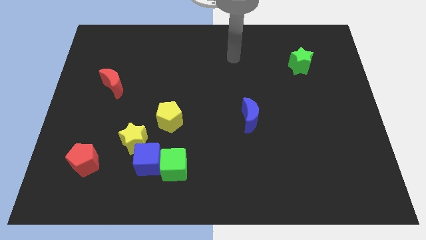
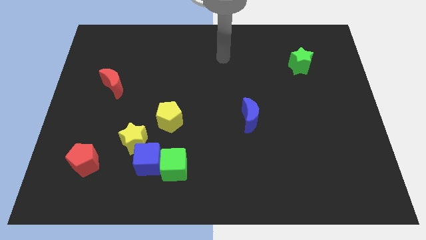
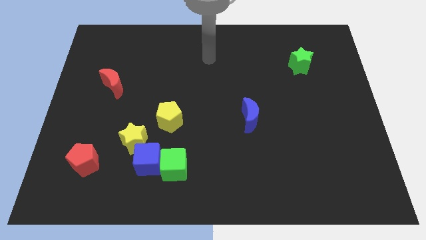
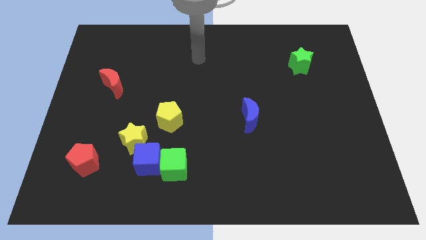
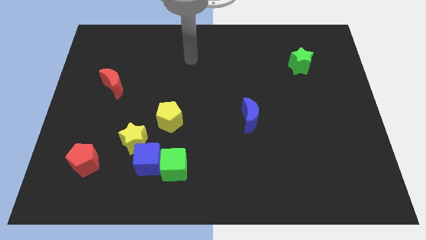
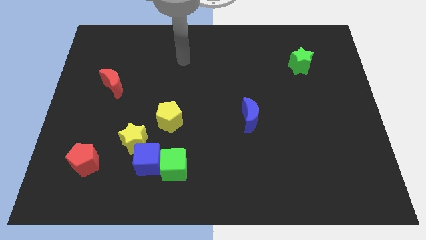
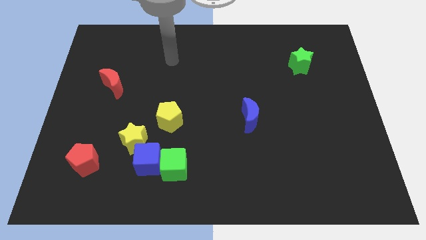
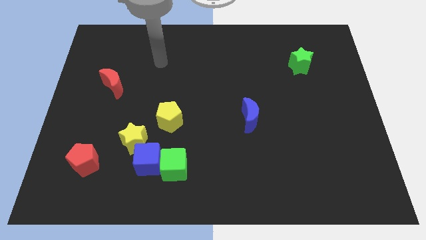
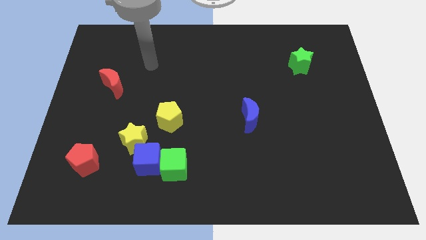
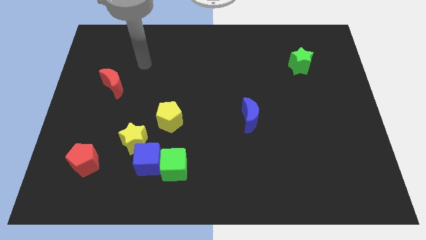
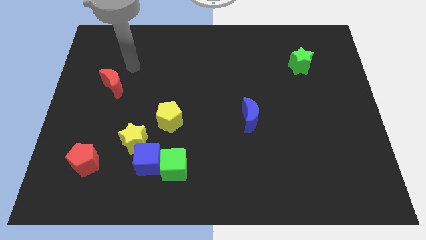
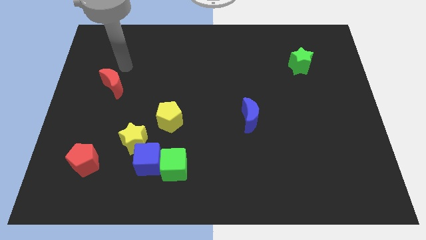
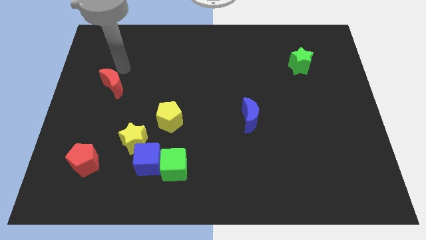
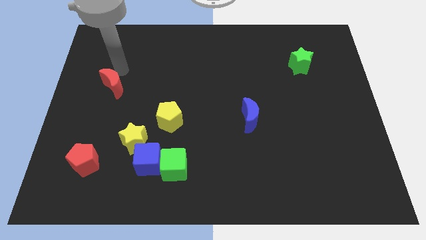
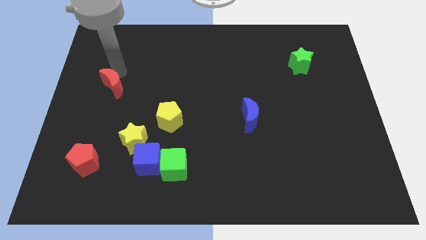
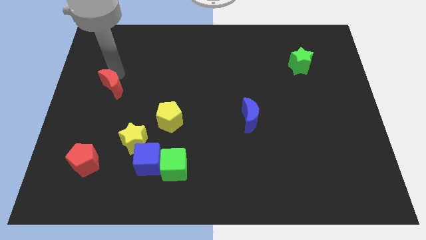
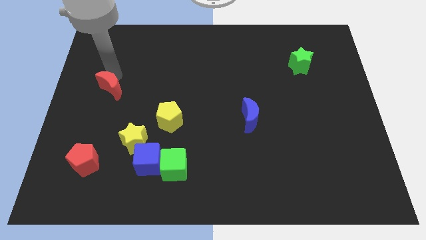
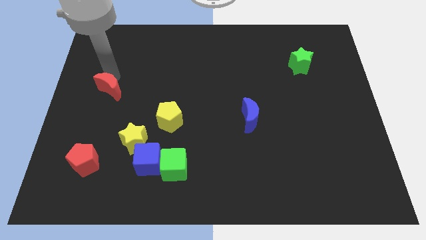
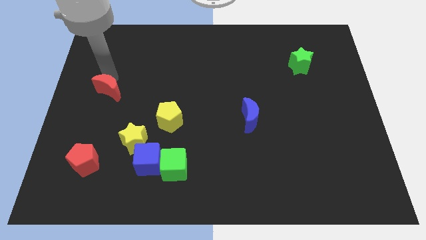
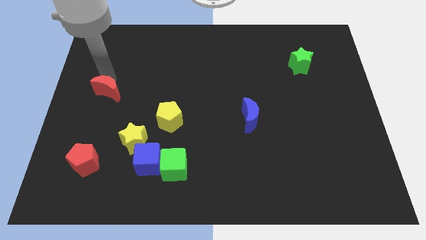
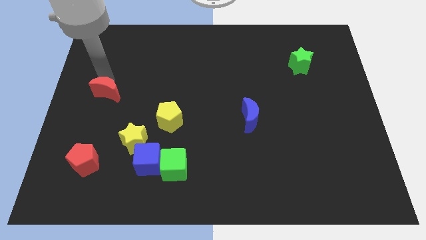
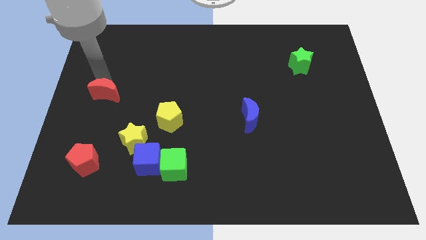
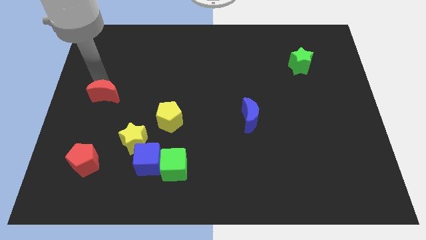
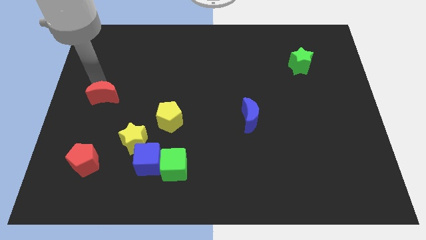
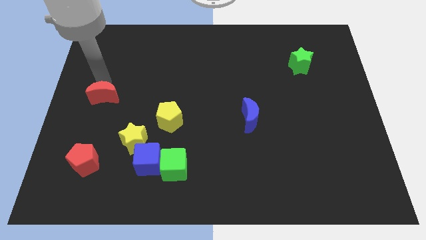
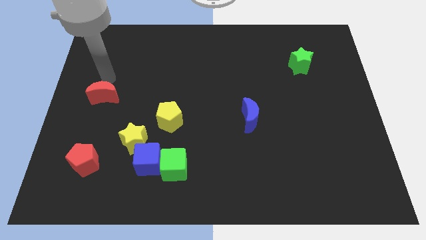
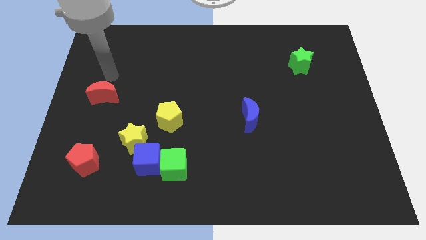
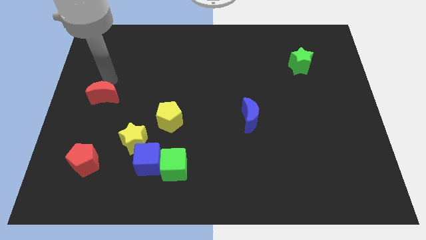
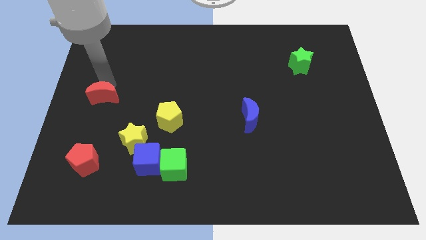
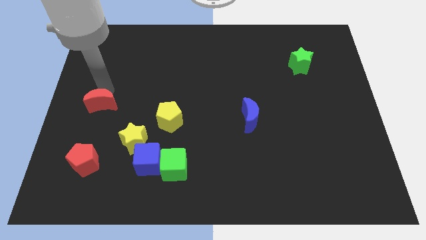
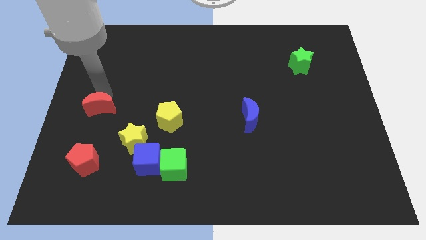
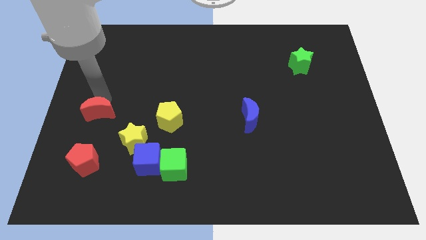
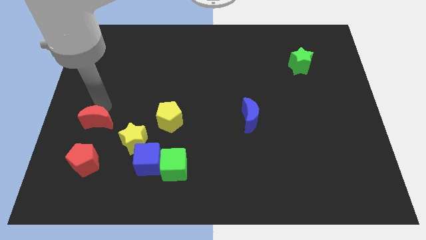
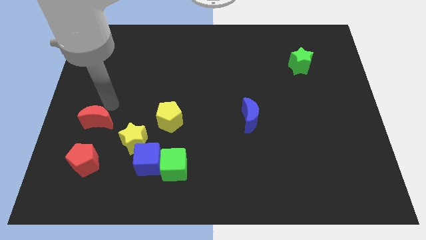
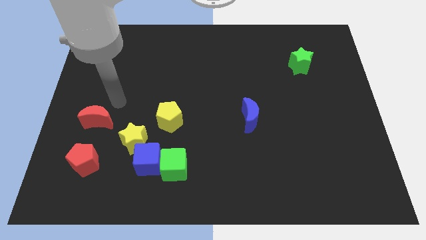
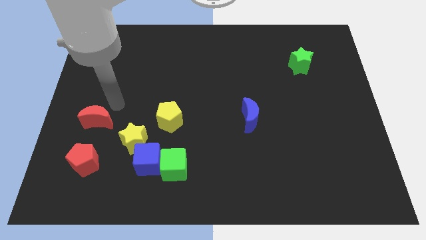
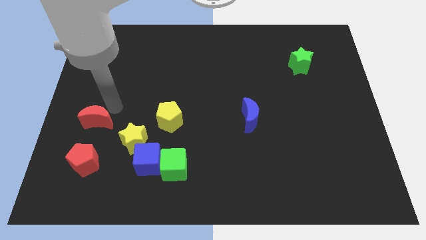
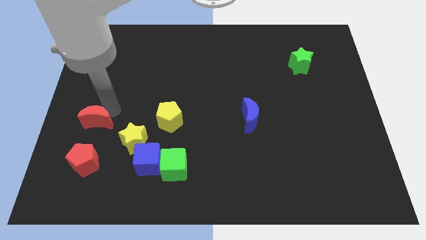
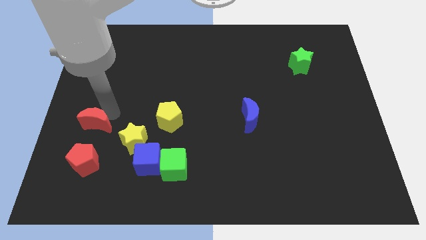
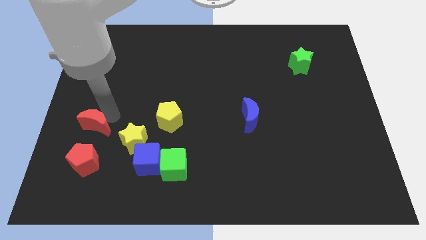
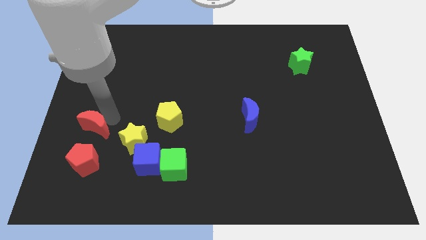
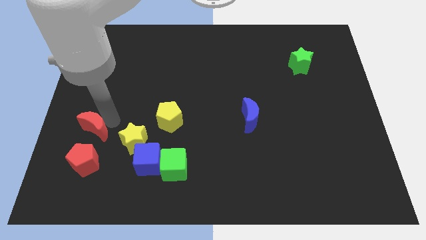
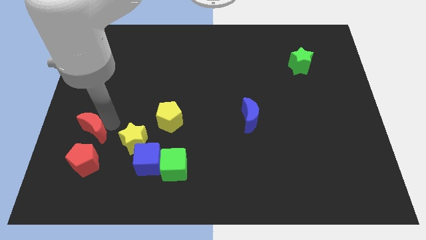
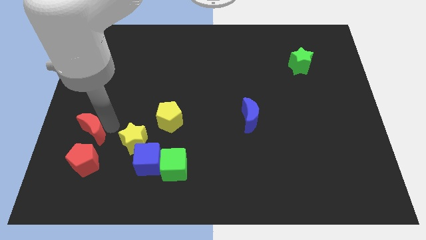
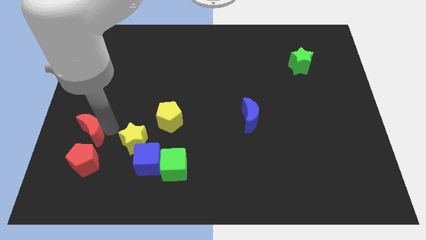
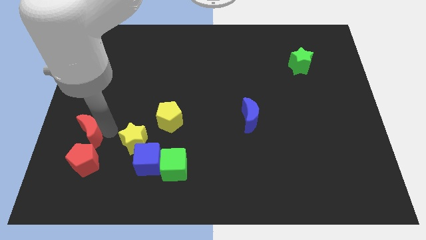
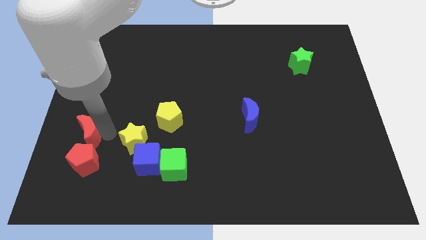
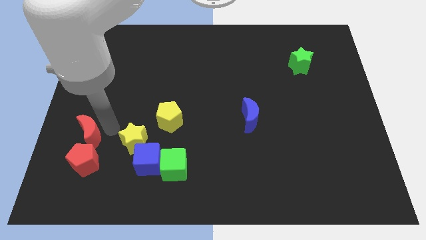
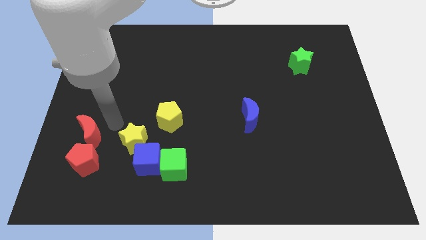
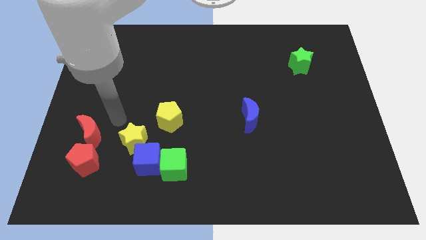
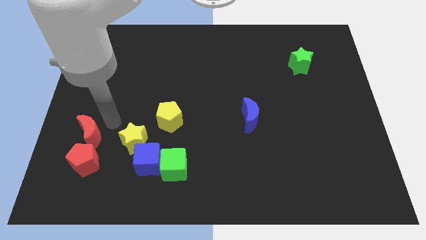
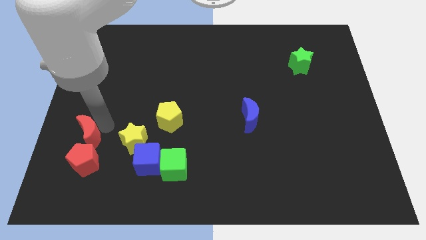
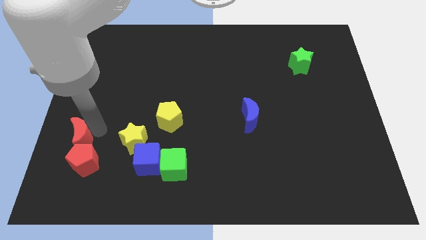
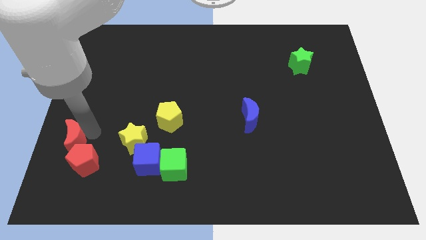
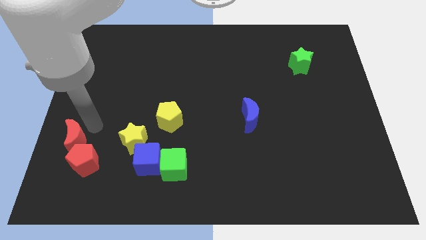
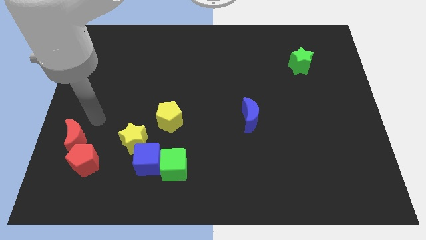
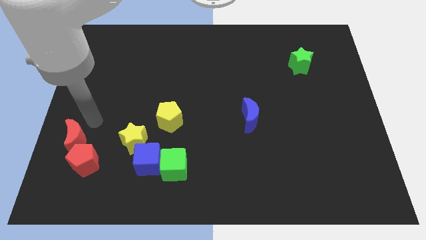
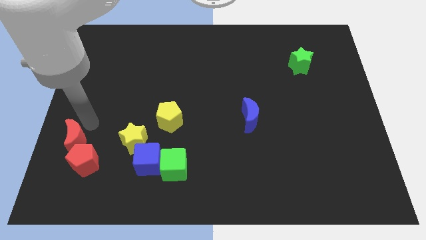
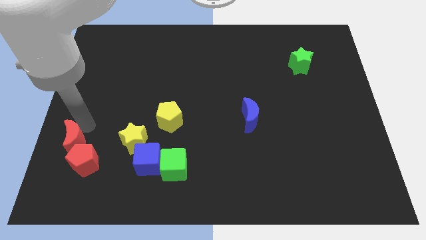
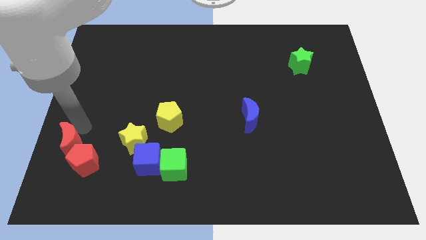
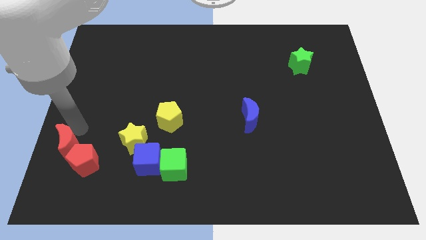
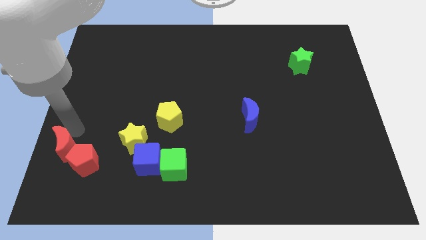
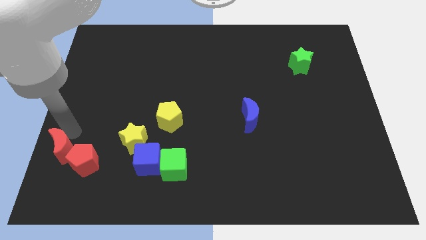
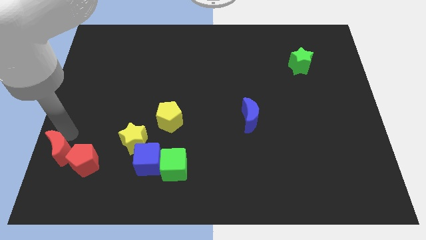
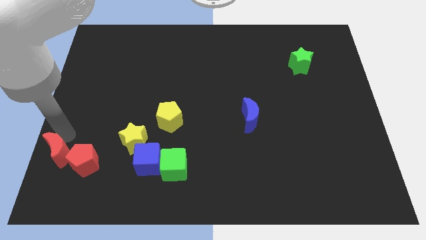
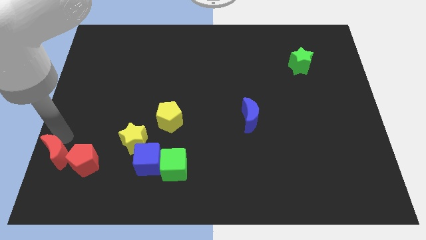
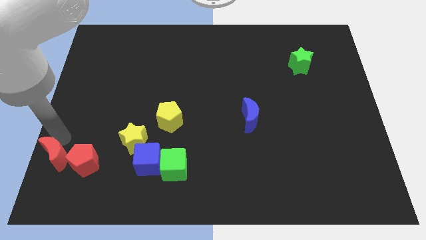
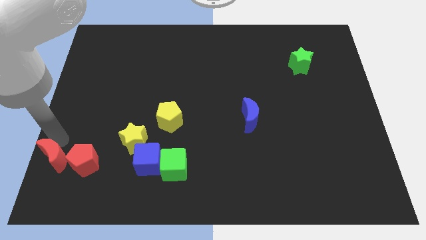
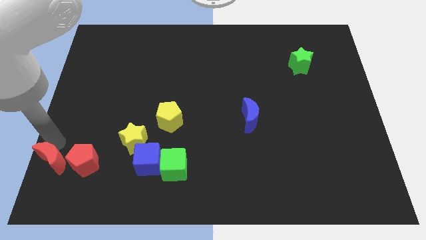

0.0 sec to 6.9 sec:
slide the red moon to the bottom left corner
